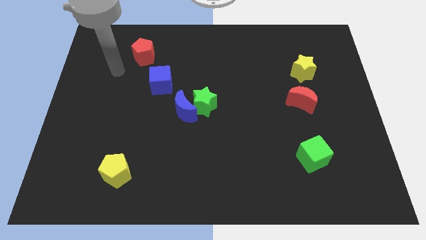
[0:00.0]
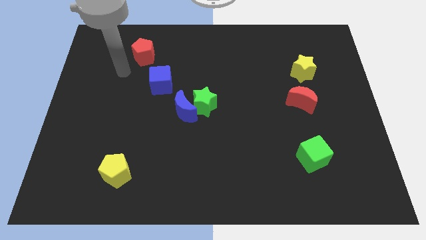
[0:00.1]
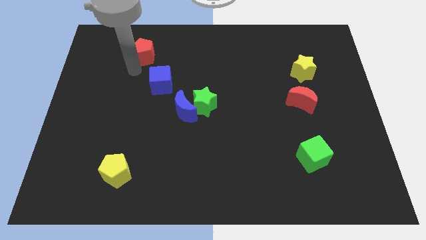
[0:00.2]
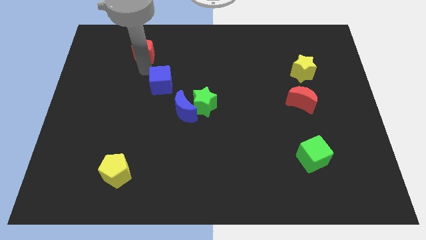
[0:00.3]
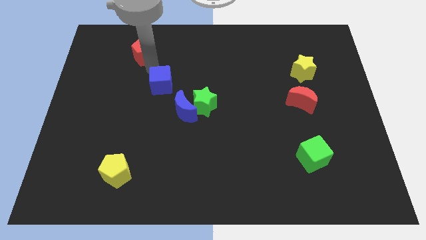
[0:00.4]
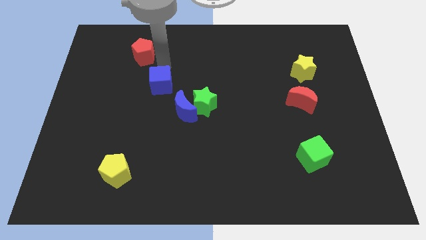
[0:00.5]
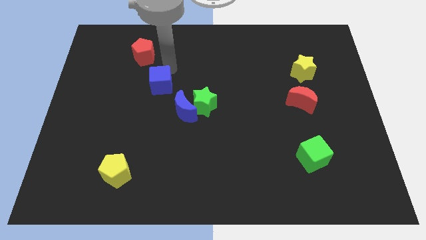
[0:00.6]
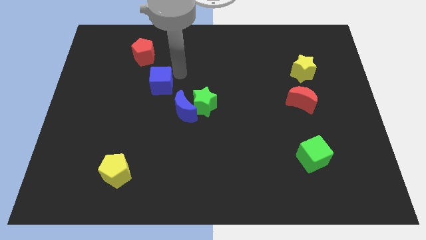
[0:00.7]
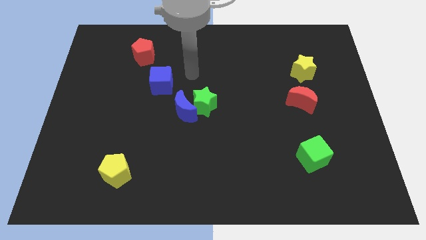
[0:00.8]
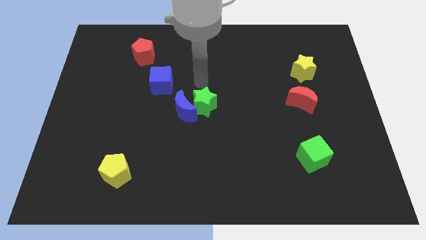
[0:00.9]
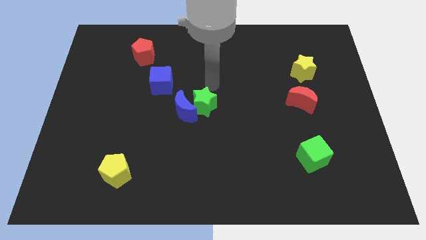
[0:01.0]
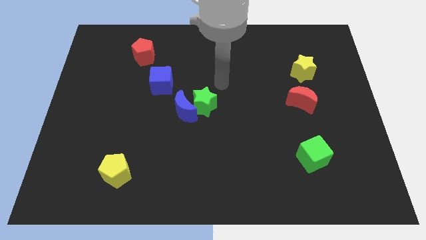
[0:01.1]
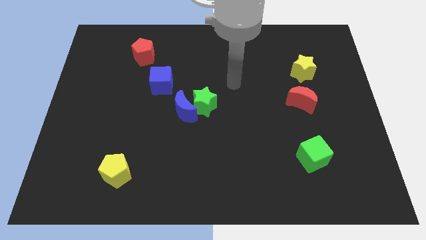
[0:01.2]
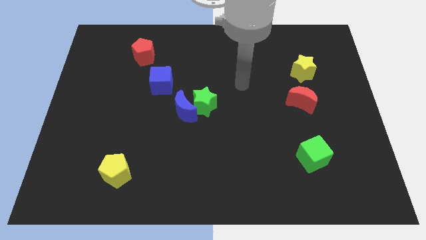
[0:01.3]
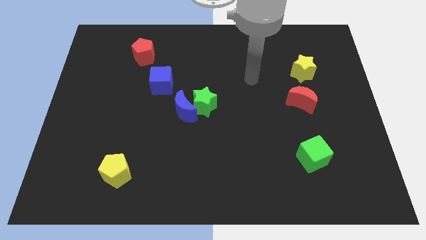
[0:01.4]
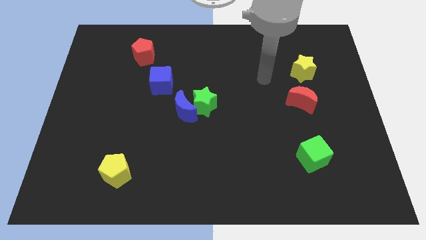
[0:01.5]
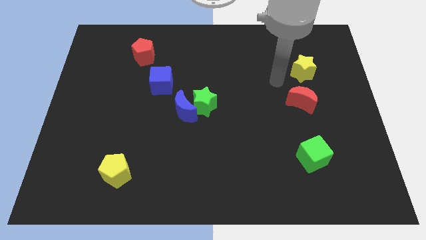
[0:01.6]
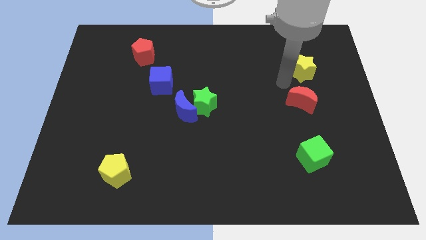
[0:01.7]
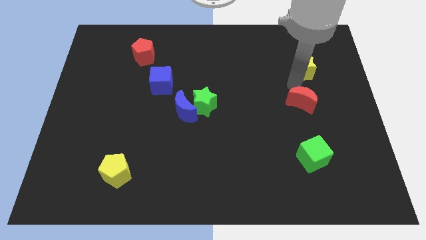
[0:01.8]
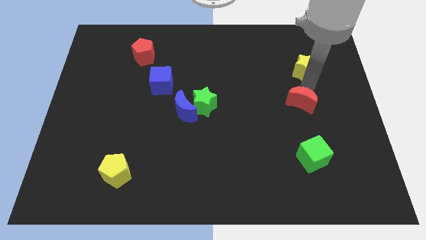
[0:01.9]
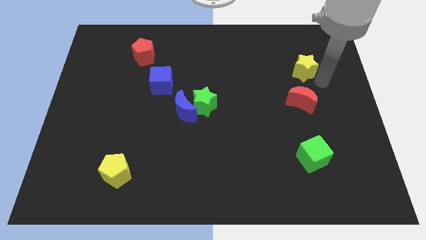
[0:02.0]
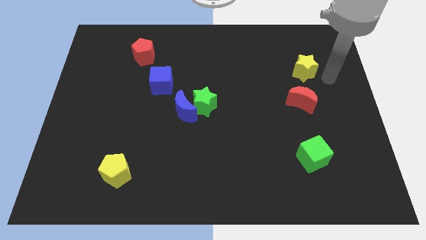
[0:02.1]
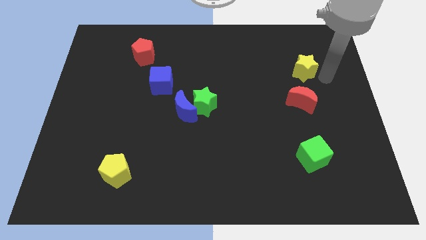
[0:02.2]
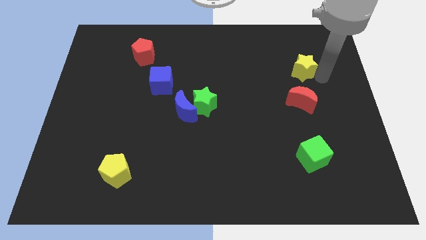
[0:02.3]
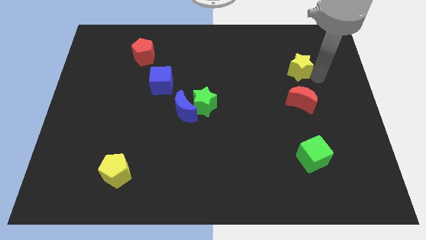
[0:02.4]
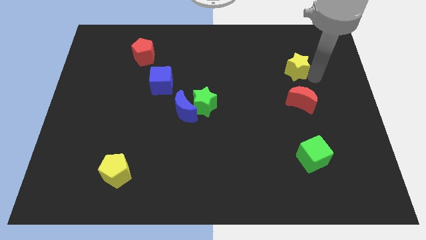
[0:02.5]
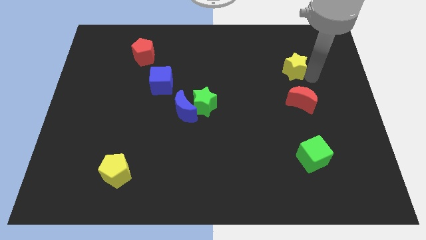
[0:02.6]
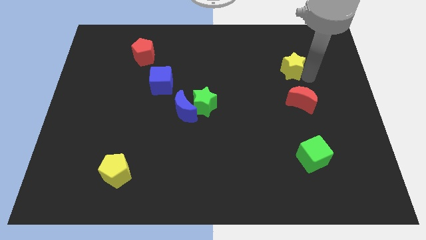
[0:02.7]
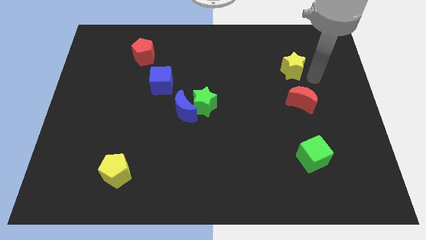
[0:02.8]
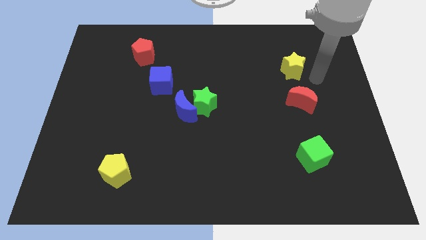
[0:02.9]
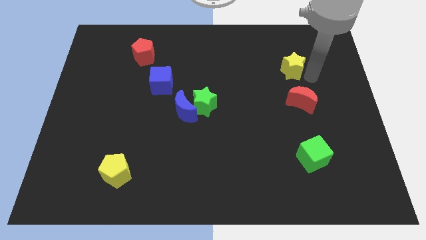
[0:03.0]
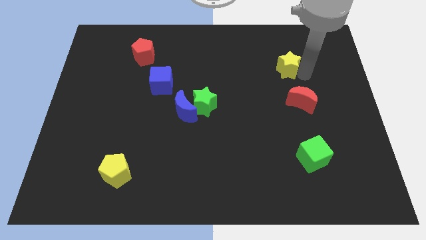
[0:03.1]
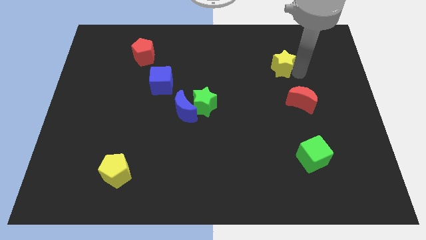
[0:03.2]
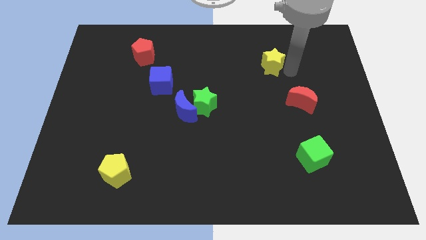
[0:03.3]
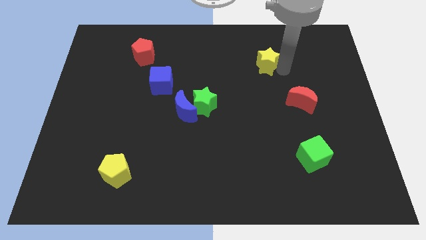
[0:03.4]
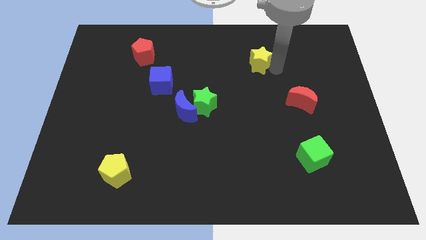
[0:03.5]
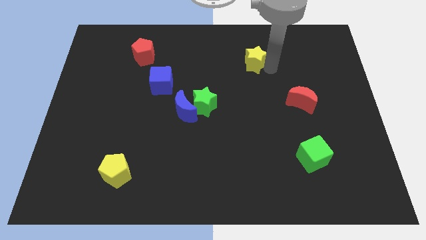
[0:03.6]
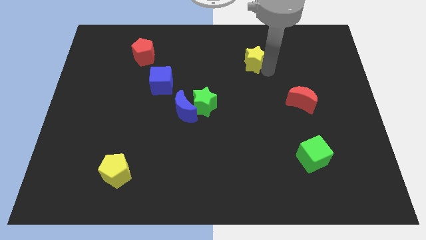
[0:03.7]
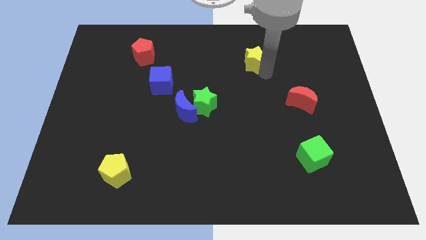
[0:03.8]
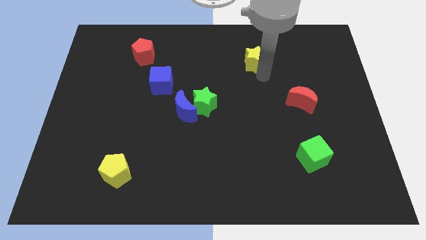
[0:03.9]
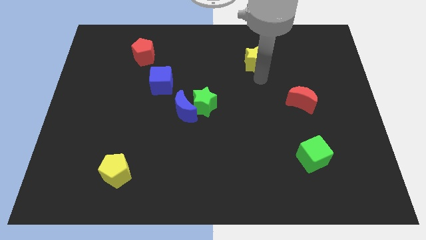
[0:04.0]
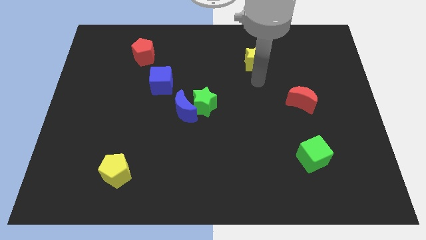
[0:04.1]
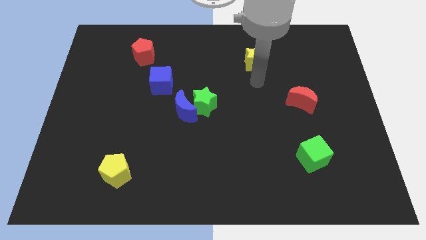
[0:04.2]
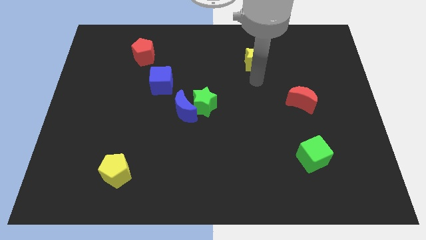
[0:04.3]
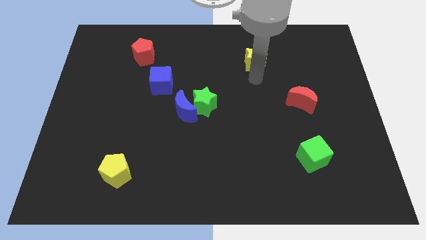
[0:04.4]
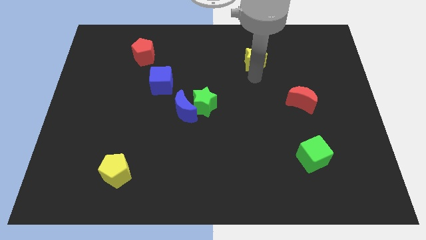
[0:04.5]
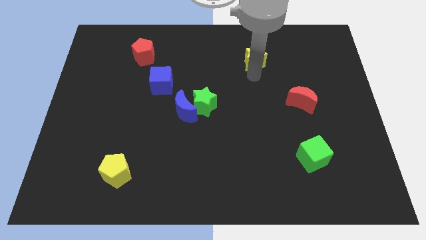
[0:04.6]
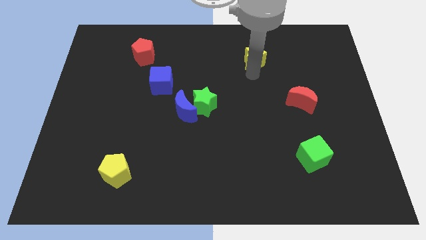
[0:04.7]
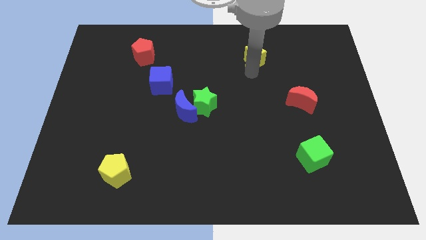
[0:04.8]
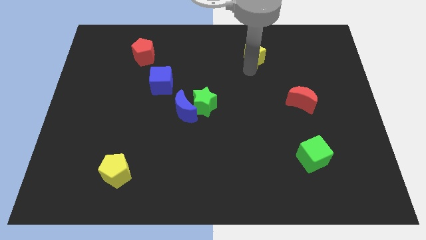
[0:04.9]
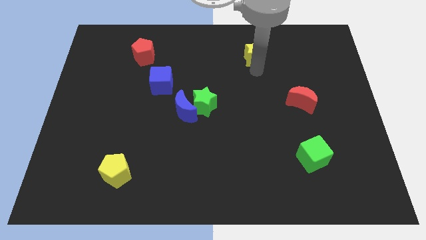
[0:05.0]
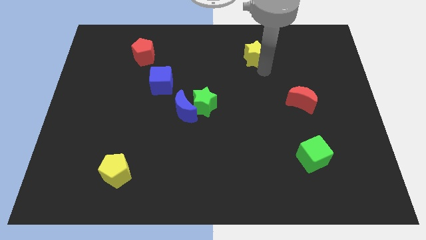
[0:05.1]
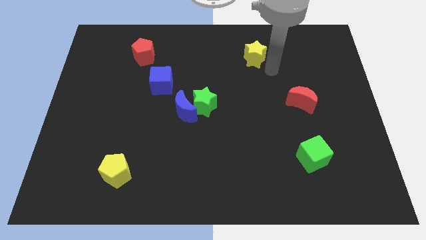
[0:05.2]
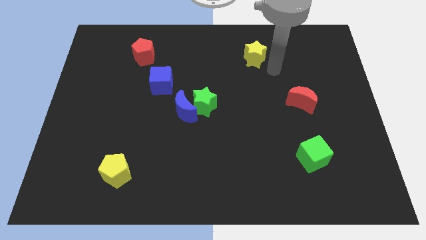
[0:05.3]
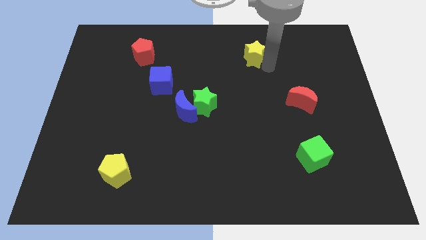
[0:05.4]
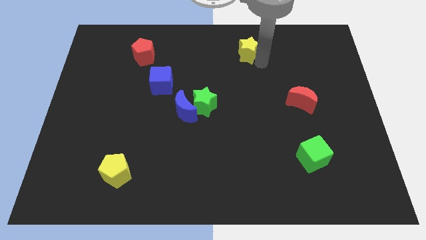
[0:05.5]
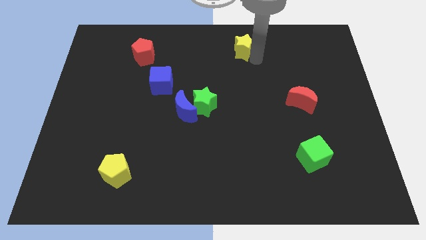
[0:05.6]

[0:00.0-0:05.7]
put the yellow star to the top
